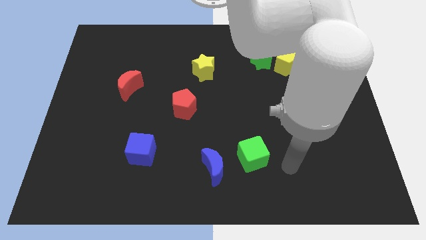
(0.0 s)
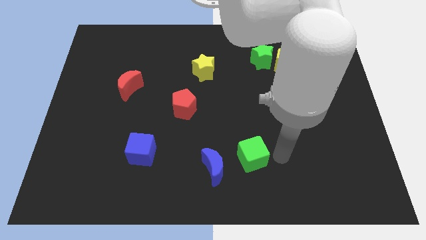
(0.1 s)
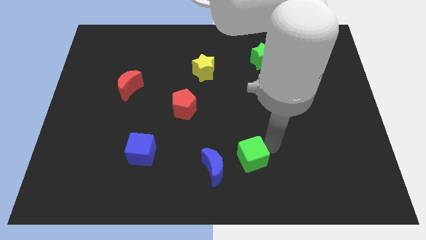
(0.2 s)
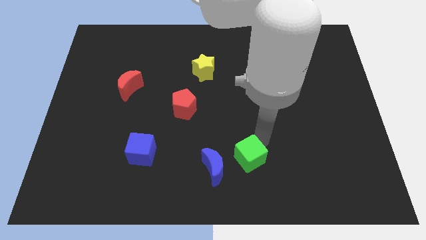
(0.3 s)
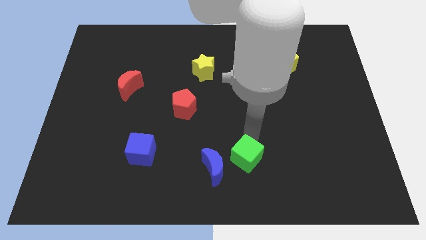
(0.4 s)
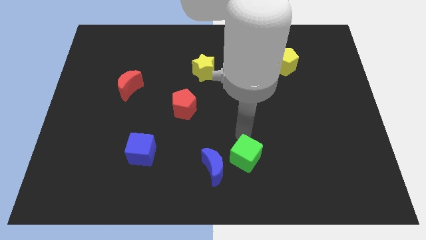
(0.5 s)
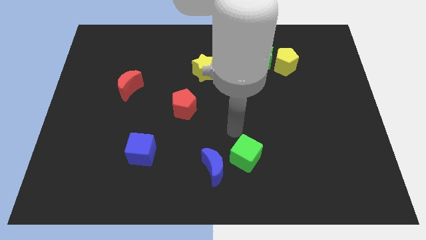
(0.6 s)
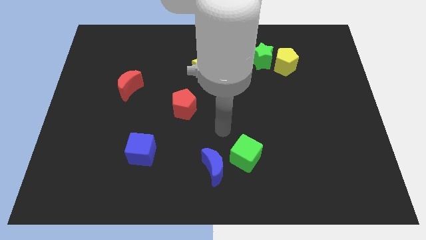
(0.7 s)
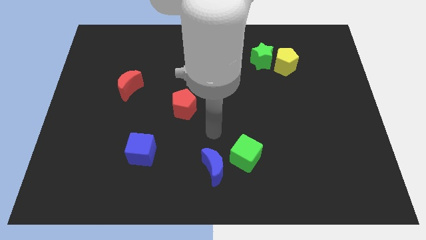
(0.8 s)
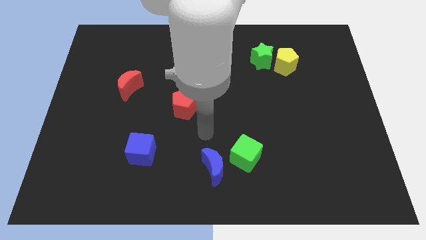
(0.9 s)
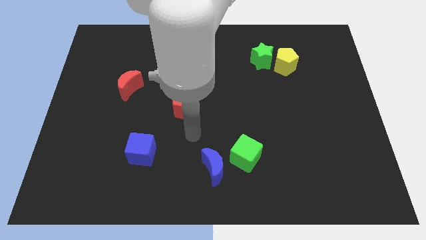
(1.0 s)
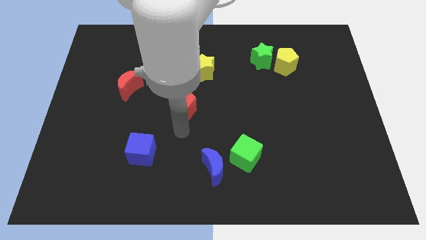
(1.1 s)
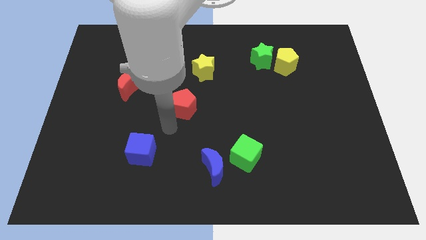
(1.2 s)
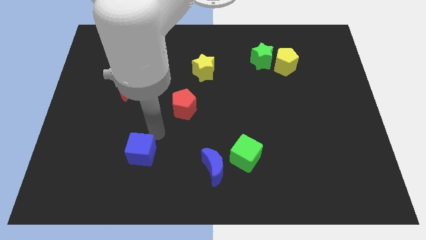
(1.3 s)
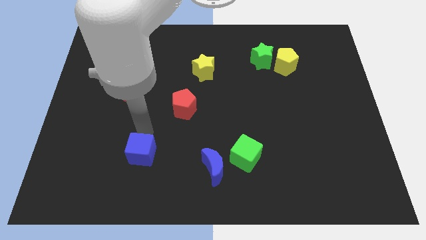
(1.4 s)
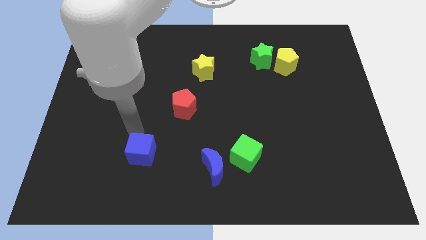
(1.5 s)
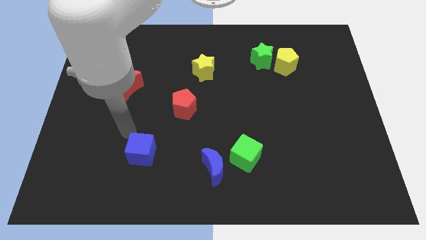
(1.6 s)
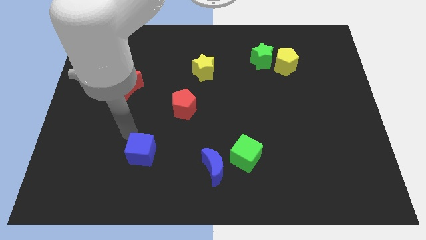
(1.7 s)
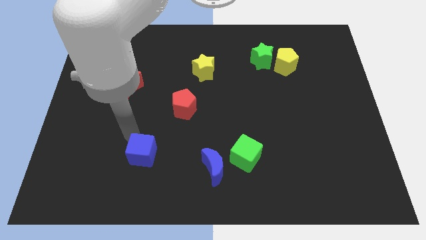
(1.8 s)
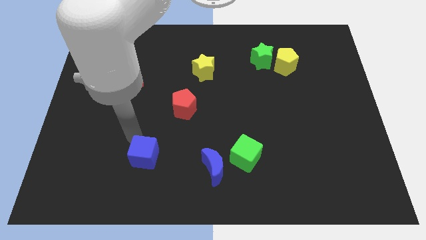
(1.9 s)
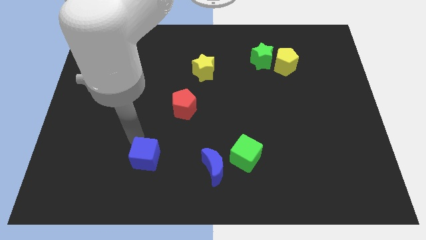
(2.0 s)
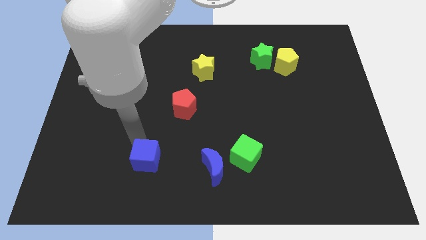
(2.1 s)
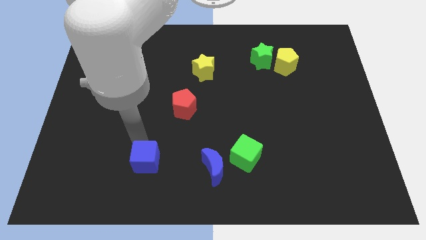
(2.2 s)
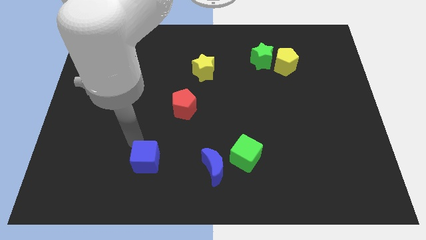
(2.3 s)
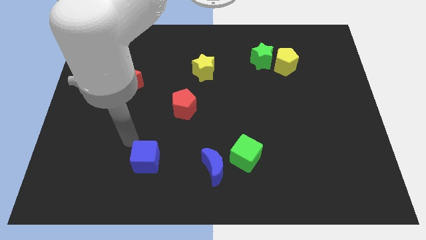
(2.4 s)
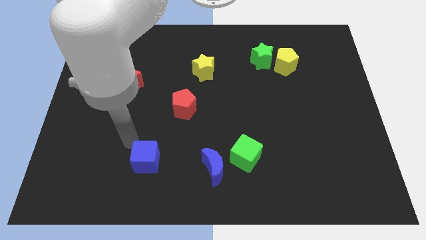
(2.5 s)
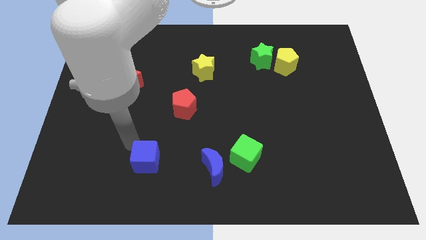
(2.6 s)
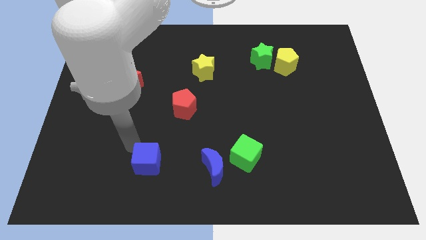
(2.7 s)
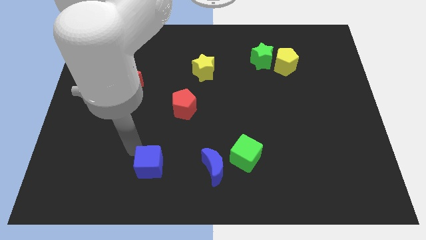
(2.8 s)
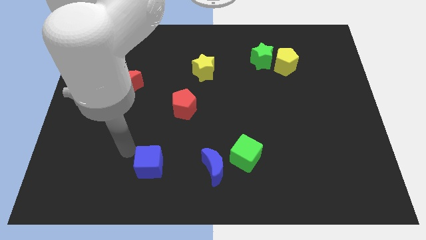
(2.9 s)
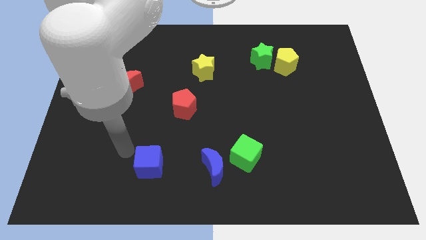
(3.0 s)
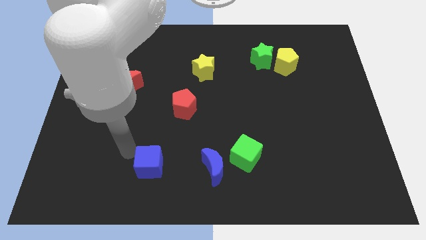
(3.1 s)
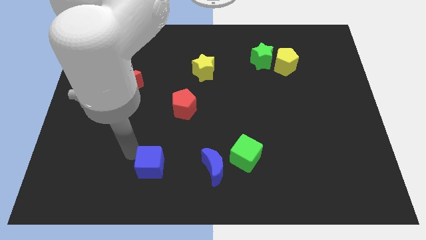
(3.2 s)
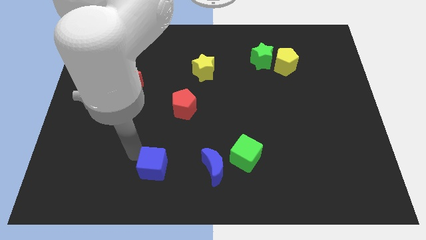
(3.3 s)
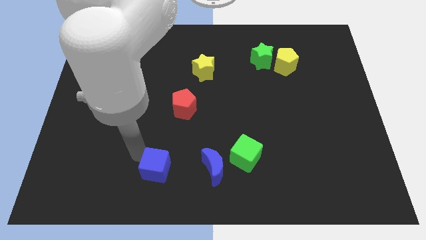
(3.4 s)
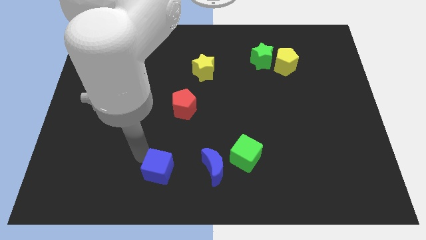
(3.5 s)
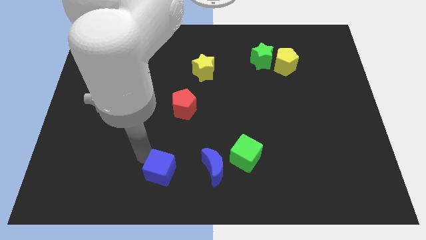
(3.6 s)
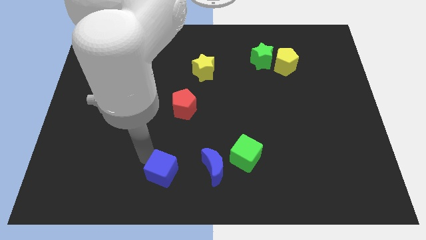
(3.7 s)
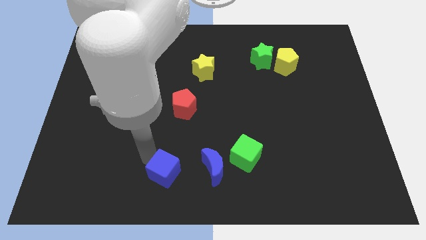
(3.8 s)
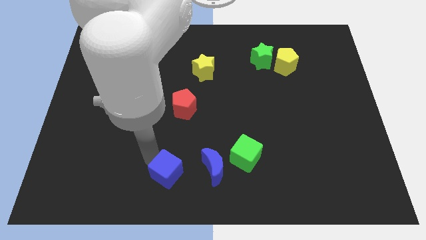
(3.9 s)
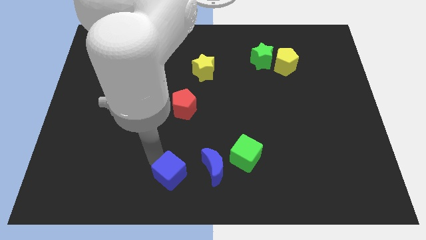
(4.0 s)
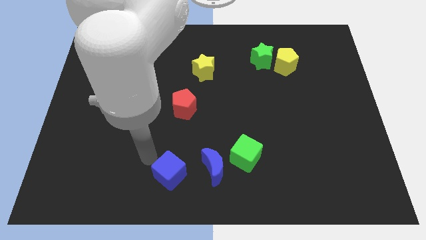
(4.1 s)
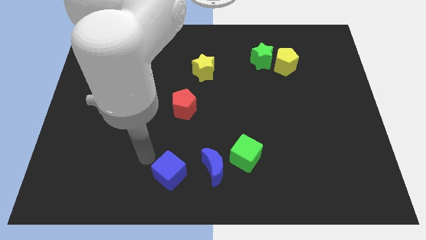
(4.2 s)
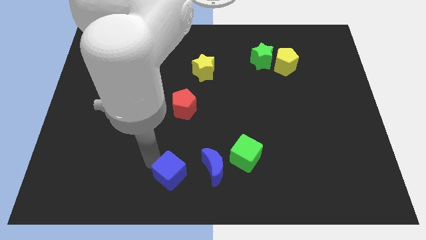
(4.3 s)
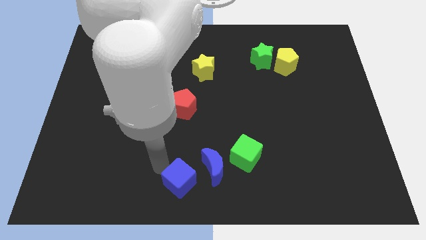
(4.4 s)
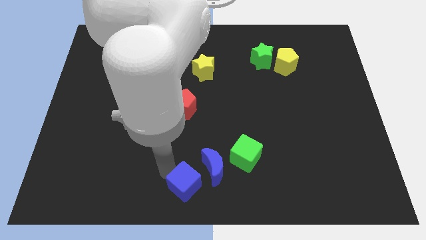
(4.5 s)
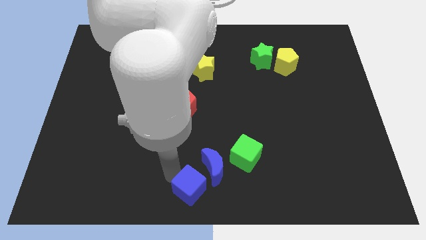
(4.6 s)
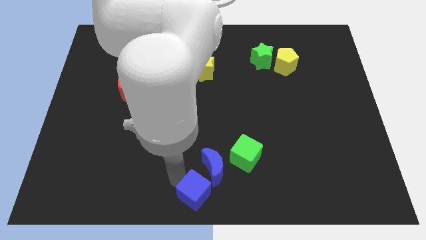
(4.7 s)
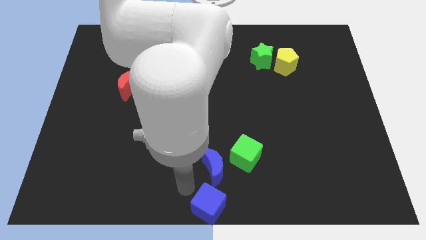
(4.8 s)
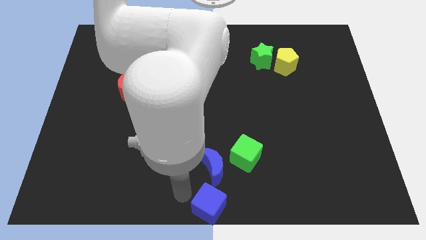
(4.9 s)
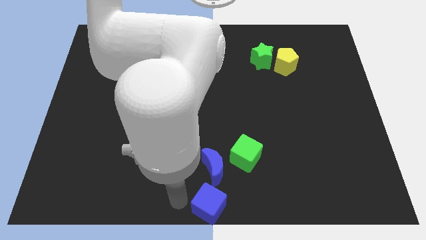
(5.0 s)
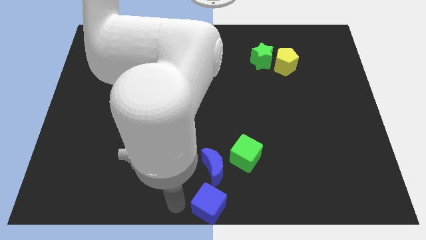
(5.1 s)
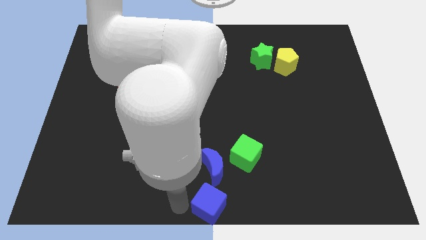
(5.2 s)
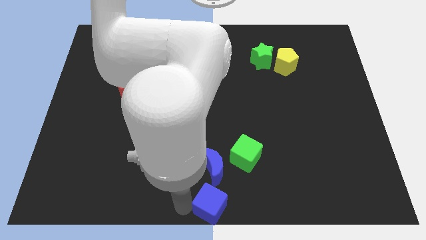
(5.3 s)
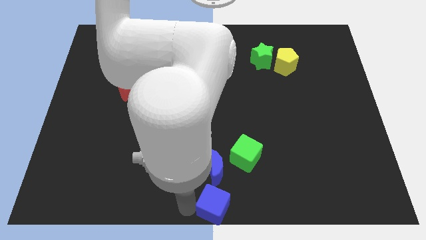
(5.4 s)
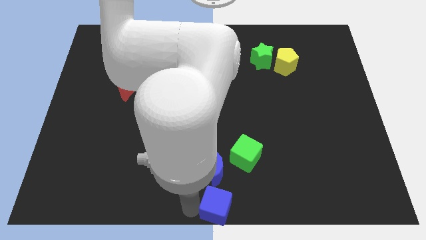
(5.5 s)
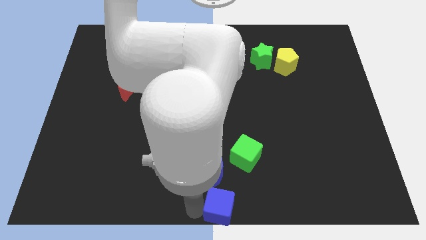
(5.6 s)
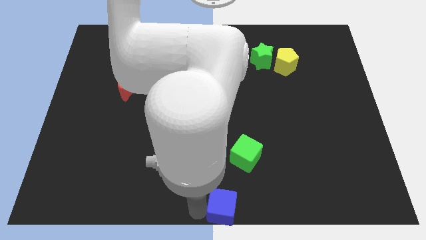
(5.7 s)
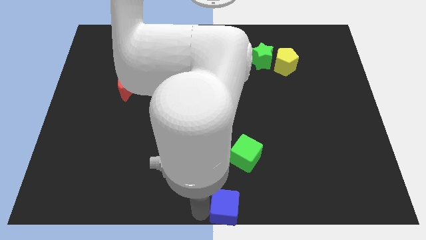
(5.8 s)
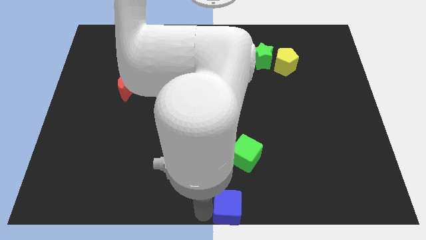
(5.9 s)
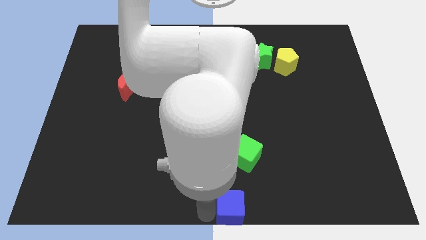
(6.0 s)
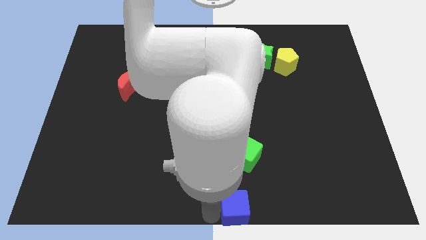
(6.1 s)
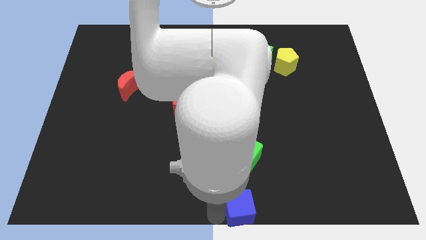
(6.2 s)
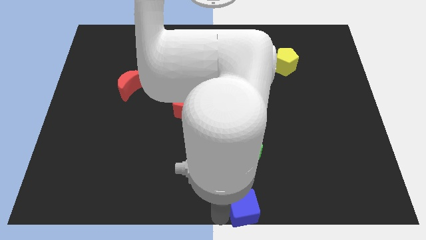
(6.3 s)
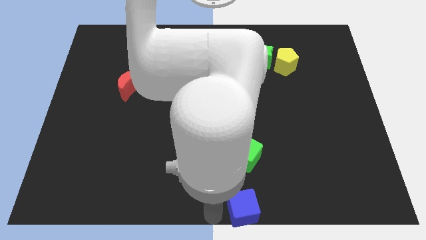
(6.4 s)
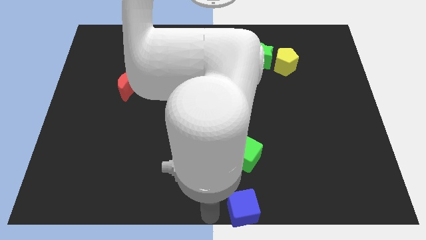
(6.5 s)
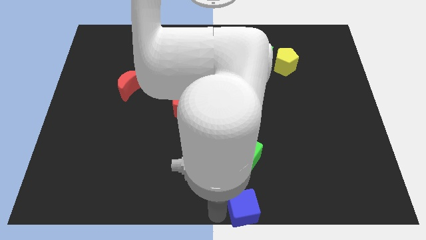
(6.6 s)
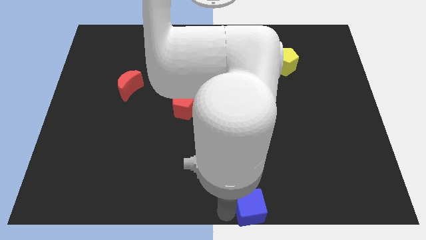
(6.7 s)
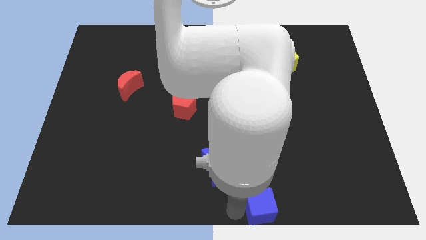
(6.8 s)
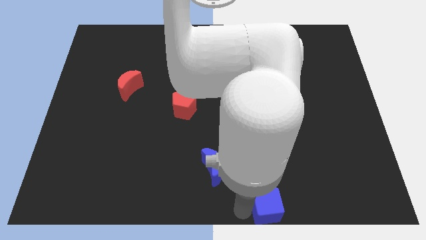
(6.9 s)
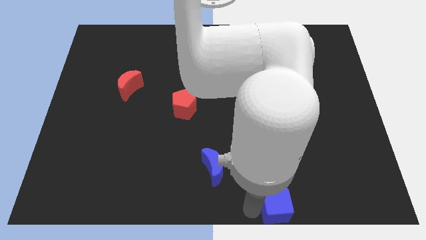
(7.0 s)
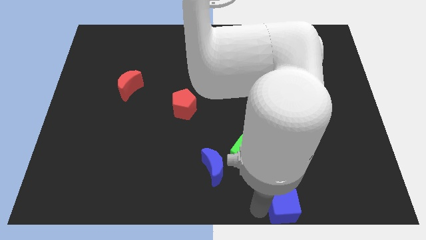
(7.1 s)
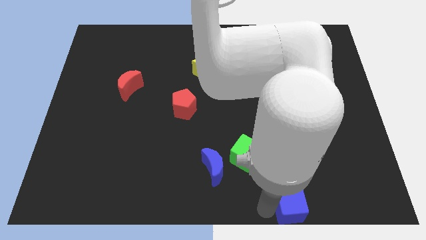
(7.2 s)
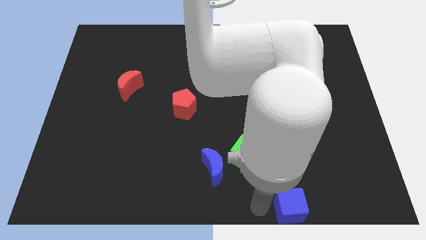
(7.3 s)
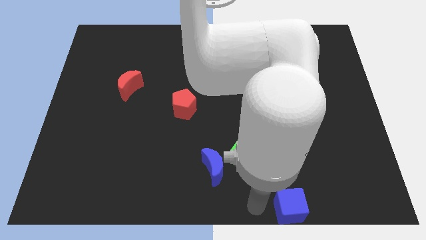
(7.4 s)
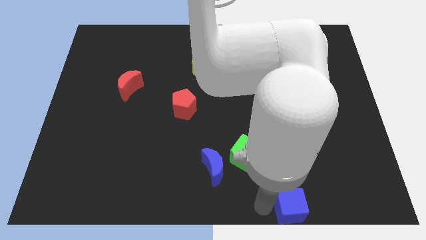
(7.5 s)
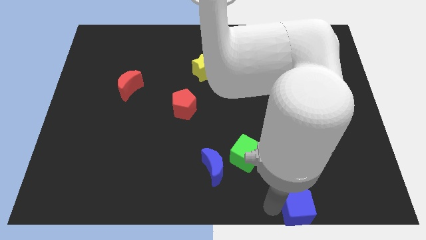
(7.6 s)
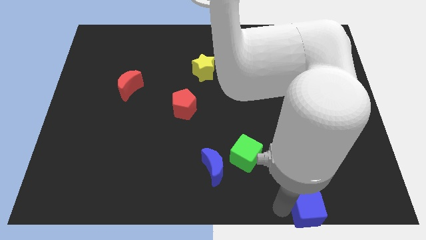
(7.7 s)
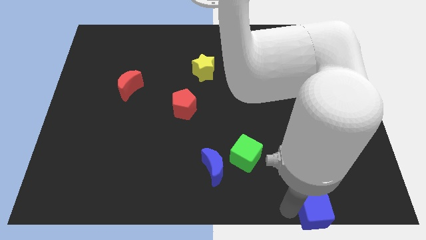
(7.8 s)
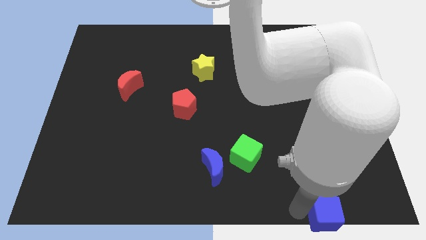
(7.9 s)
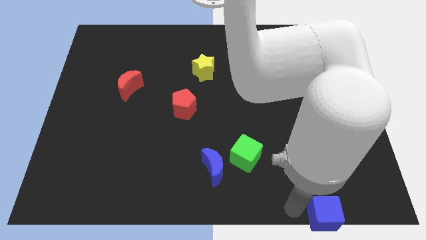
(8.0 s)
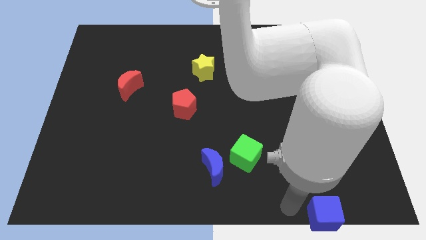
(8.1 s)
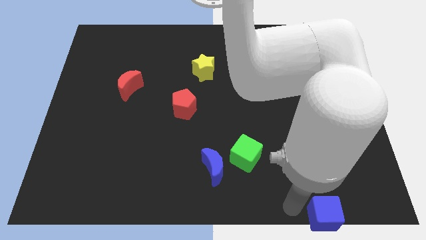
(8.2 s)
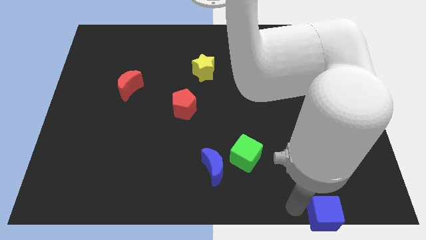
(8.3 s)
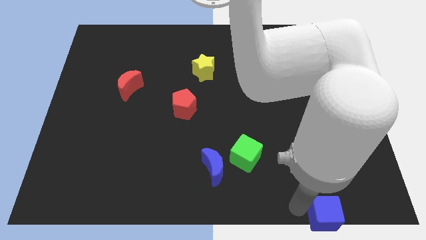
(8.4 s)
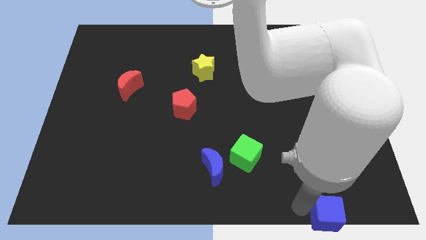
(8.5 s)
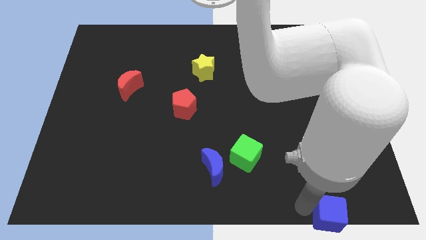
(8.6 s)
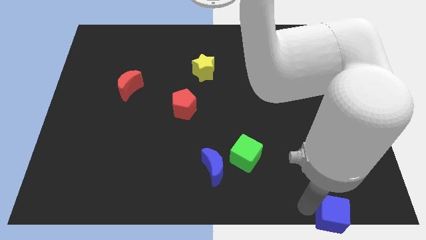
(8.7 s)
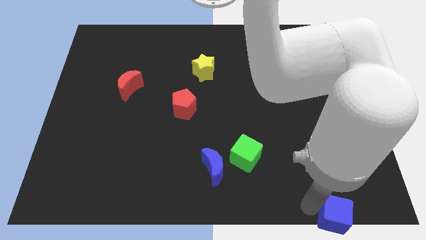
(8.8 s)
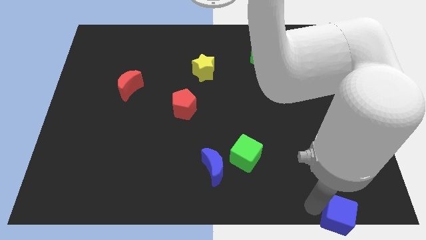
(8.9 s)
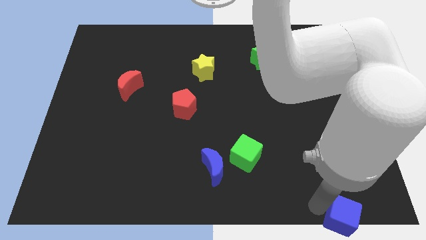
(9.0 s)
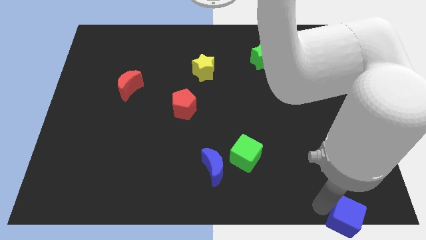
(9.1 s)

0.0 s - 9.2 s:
push the blue cube to the bottom right corner
